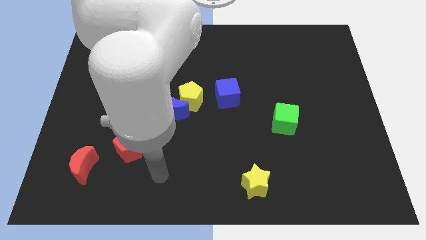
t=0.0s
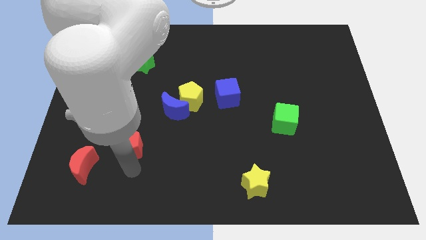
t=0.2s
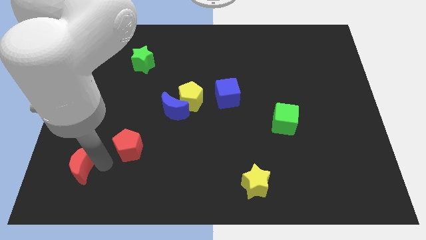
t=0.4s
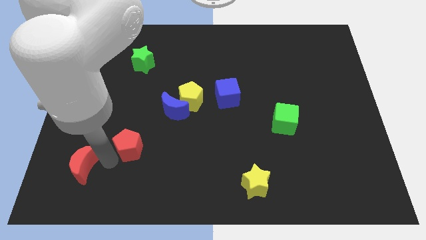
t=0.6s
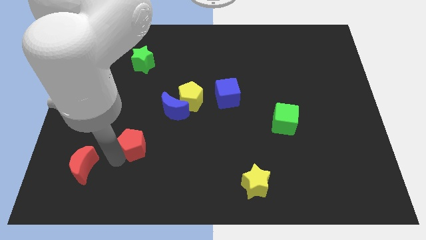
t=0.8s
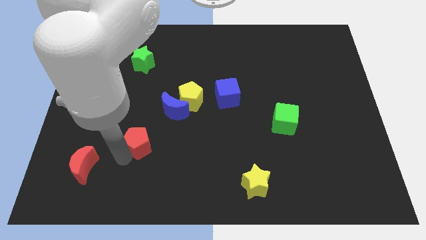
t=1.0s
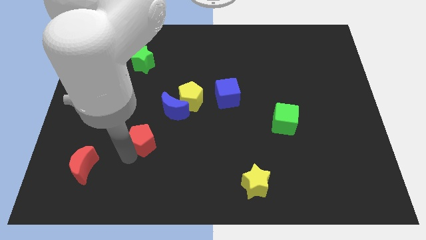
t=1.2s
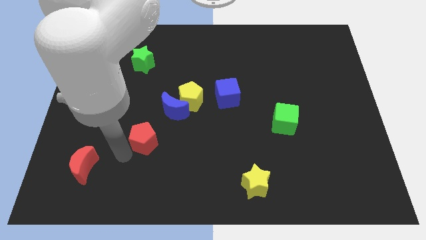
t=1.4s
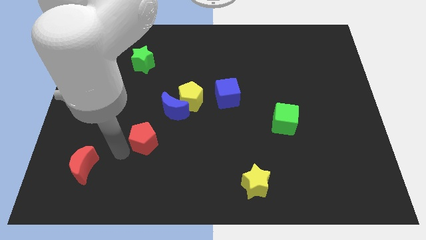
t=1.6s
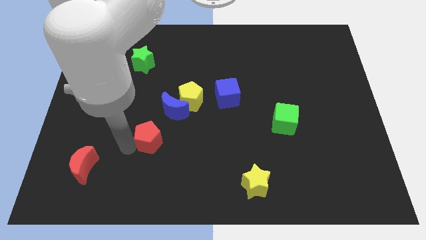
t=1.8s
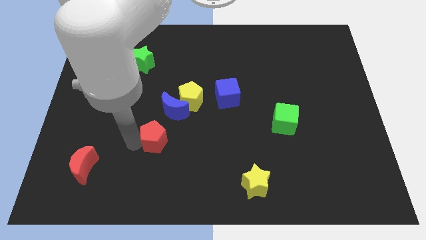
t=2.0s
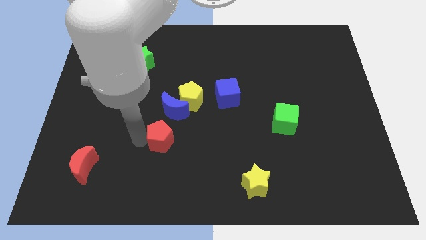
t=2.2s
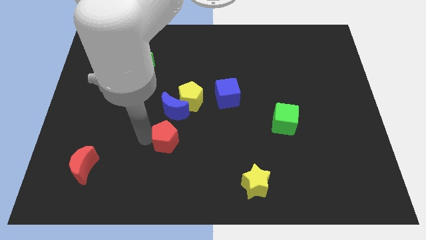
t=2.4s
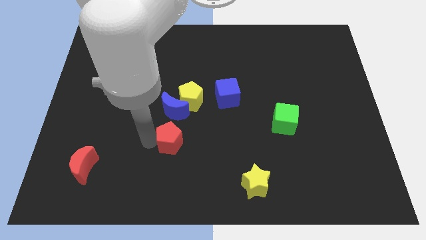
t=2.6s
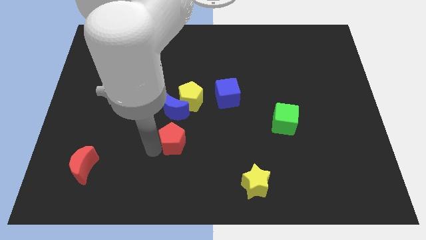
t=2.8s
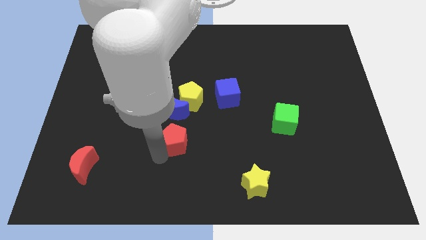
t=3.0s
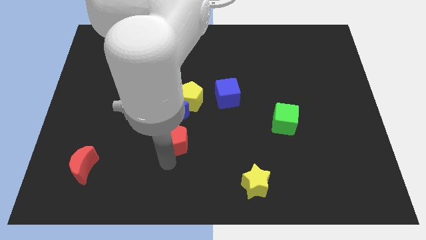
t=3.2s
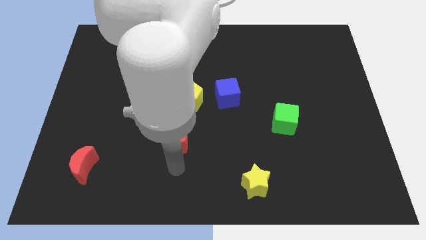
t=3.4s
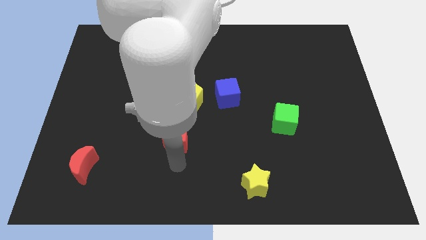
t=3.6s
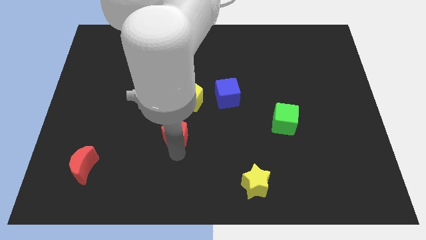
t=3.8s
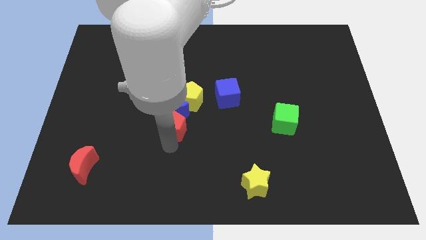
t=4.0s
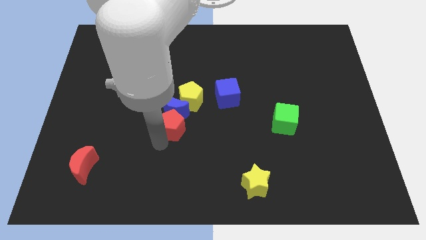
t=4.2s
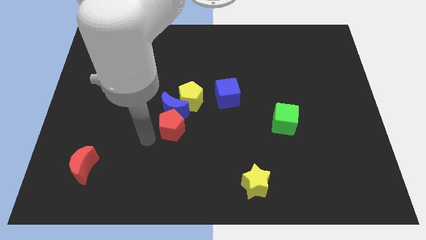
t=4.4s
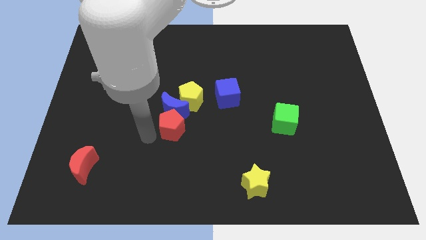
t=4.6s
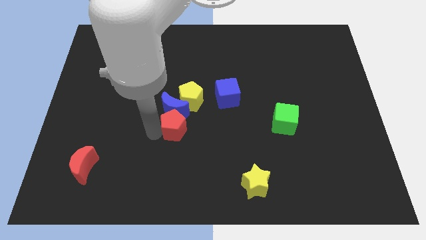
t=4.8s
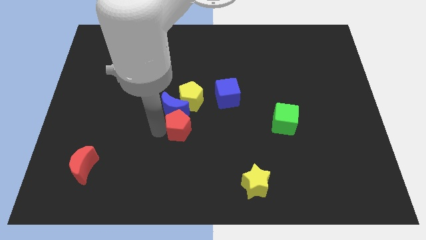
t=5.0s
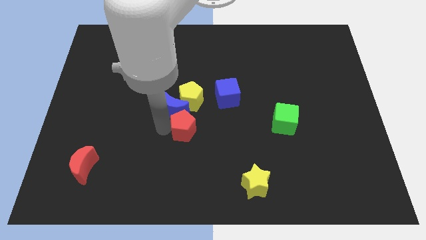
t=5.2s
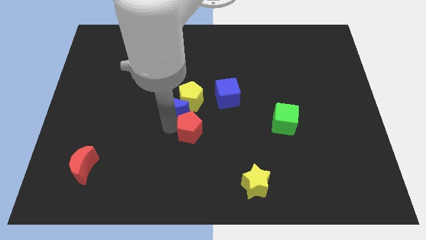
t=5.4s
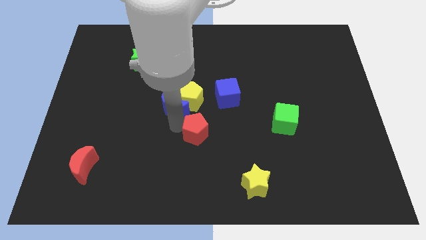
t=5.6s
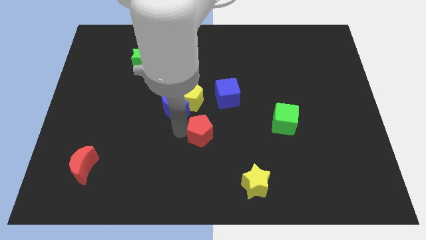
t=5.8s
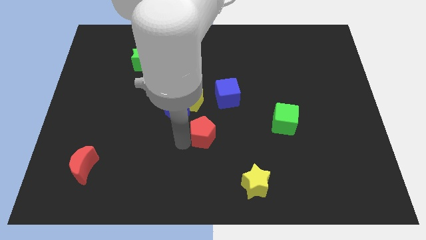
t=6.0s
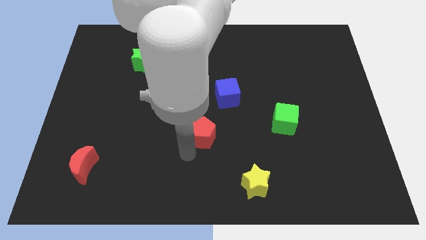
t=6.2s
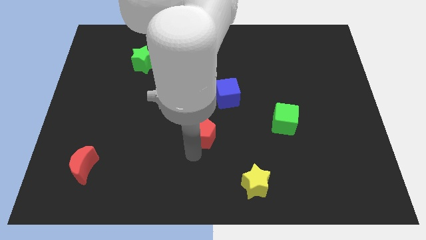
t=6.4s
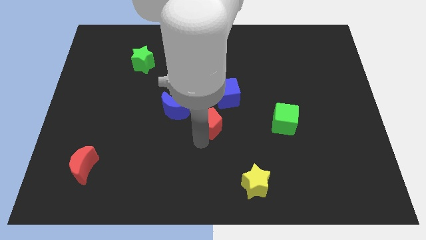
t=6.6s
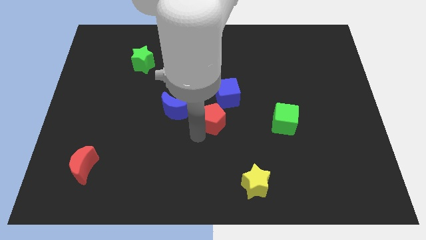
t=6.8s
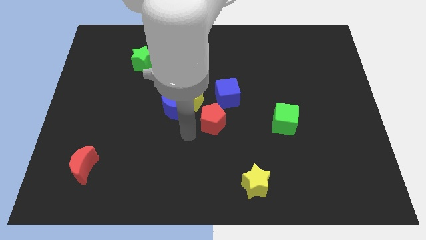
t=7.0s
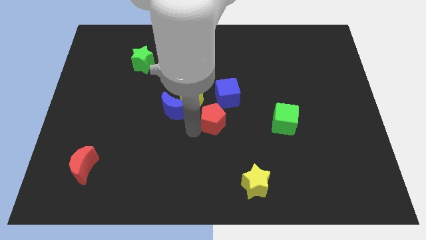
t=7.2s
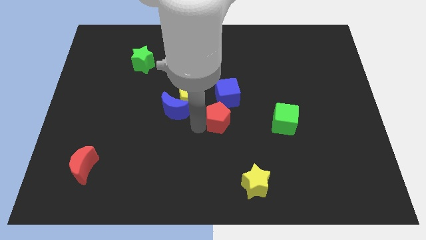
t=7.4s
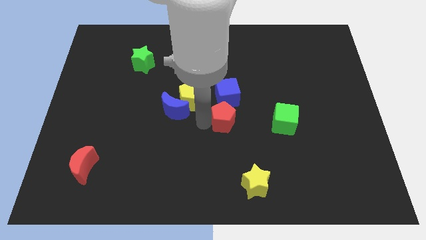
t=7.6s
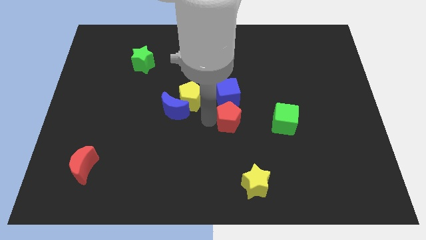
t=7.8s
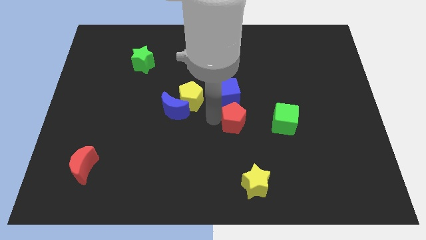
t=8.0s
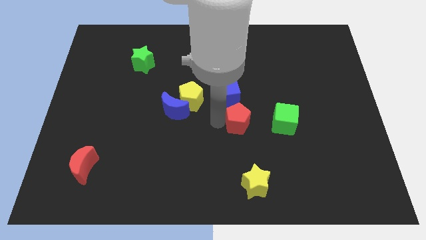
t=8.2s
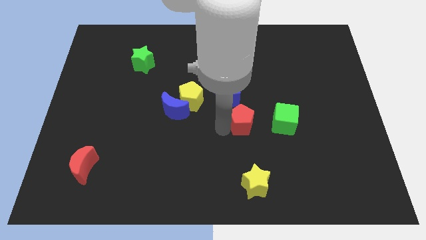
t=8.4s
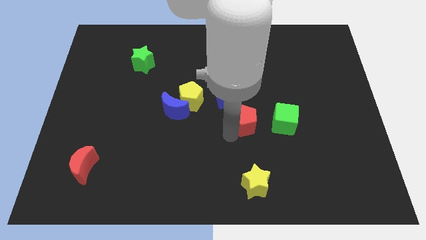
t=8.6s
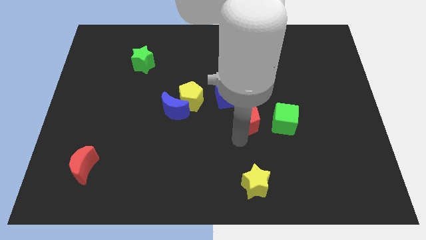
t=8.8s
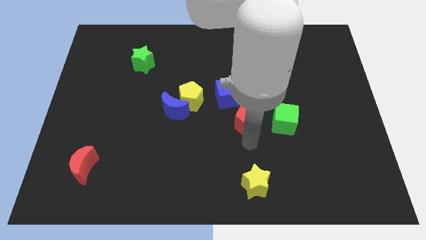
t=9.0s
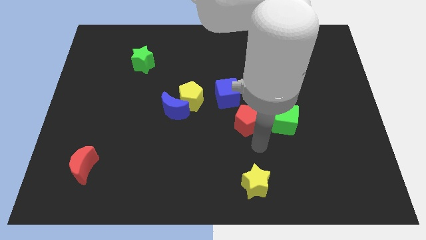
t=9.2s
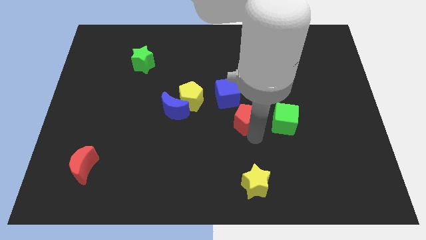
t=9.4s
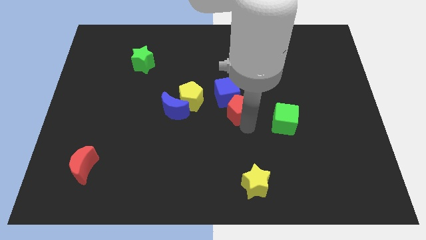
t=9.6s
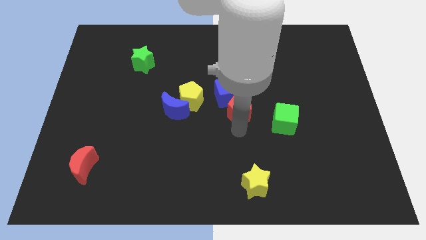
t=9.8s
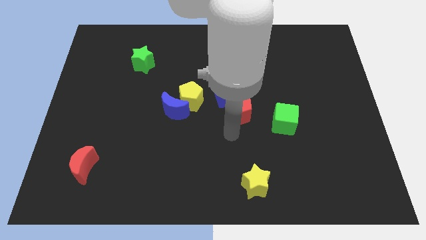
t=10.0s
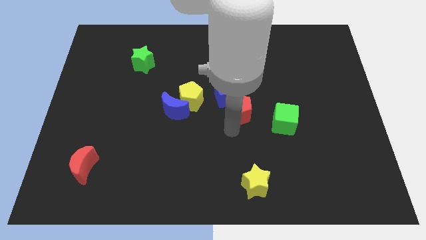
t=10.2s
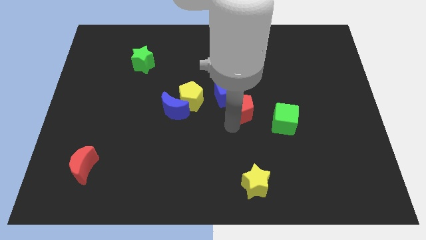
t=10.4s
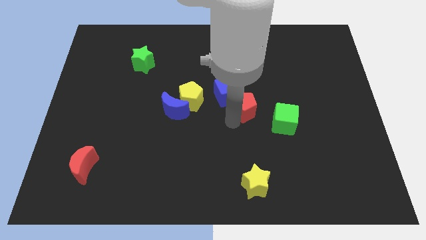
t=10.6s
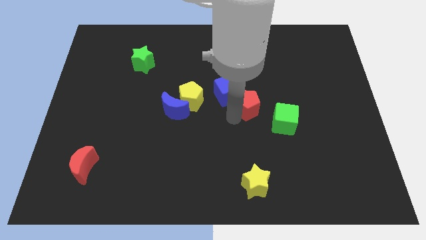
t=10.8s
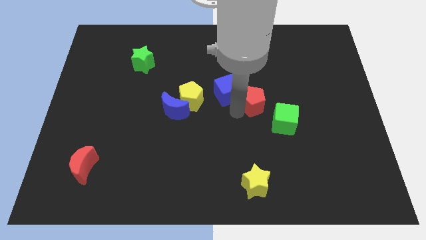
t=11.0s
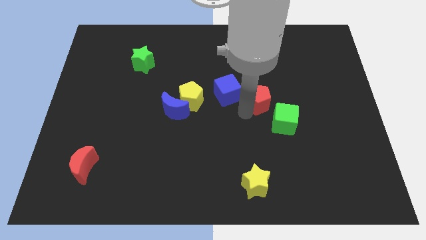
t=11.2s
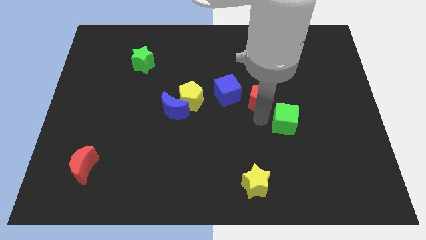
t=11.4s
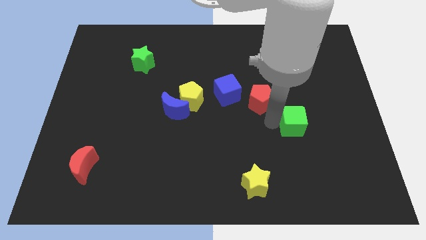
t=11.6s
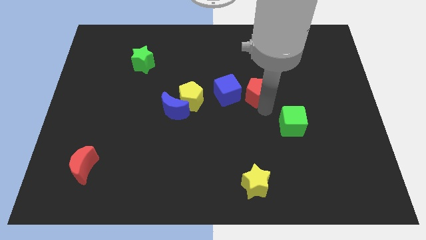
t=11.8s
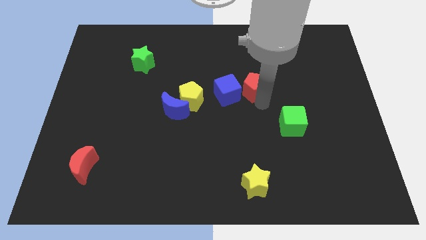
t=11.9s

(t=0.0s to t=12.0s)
move the red pentagon to the top right of the blue cube

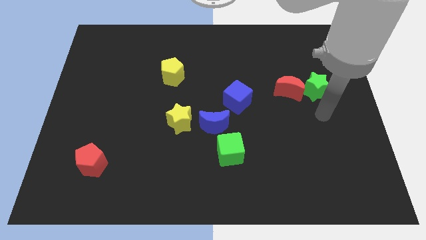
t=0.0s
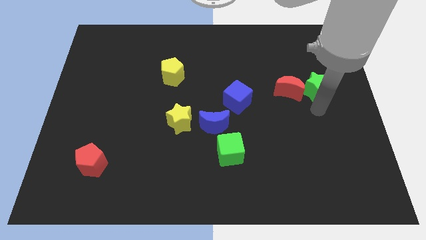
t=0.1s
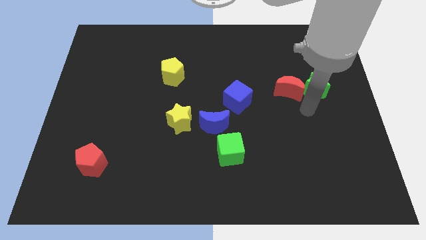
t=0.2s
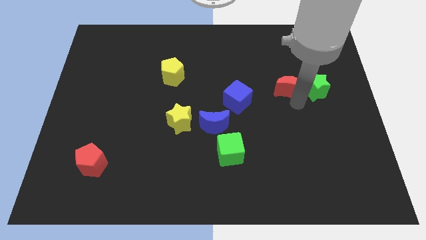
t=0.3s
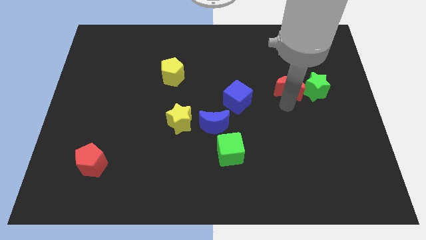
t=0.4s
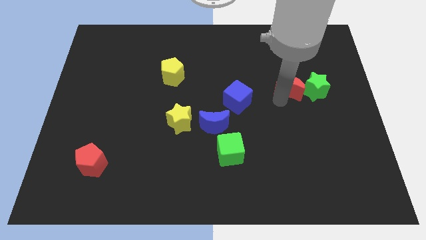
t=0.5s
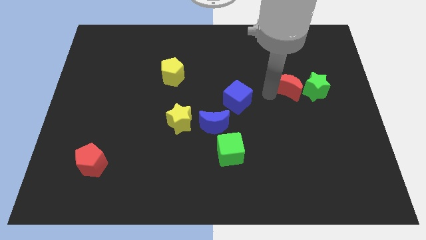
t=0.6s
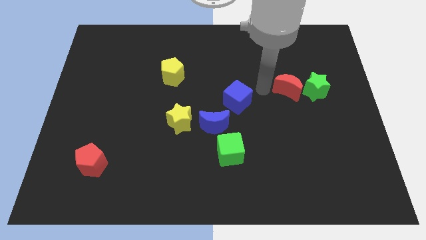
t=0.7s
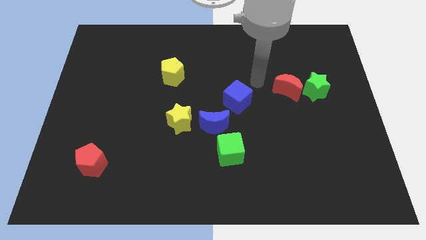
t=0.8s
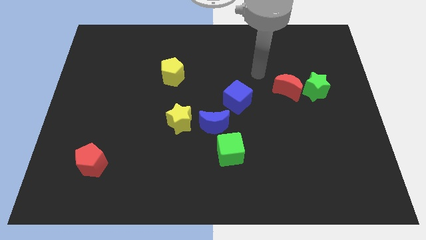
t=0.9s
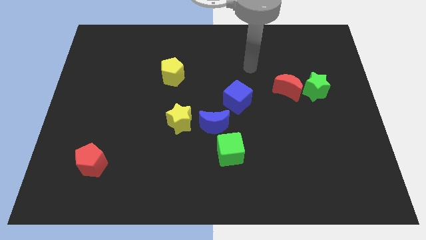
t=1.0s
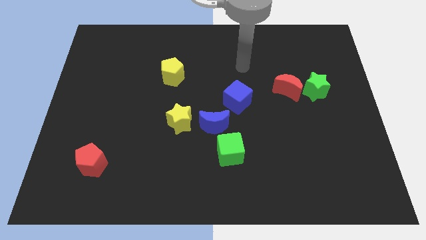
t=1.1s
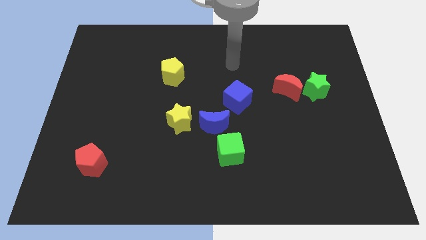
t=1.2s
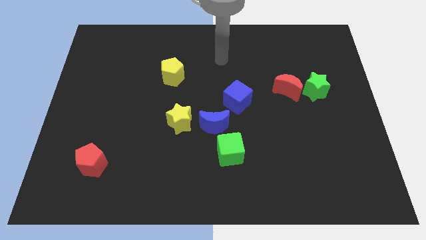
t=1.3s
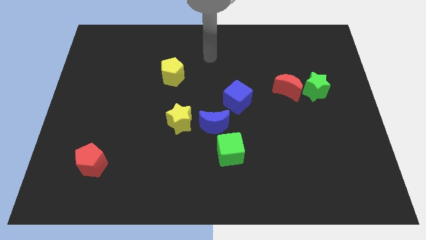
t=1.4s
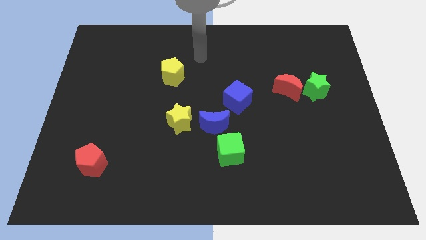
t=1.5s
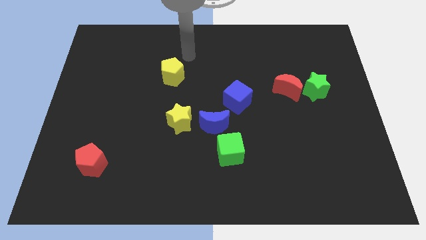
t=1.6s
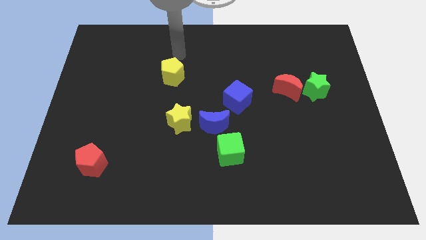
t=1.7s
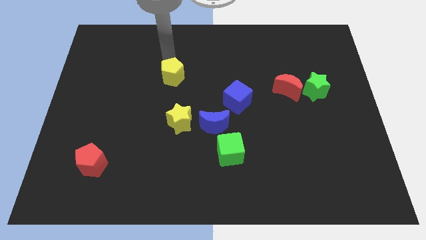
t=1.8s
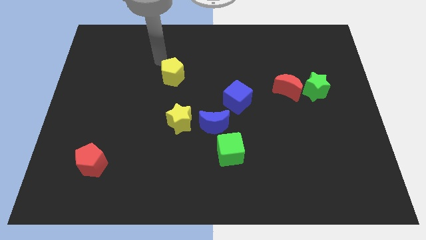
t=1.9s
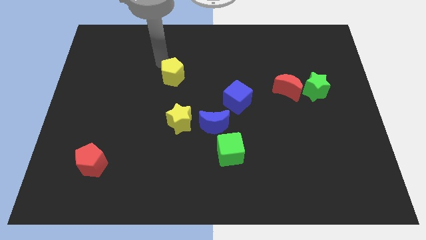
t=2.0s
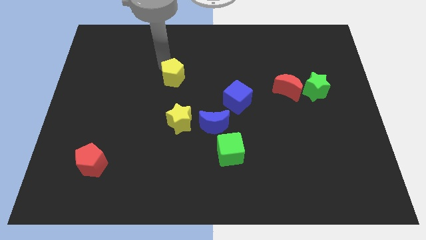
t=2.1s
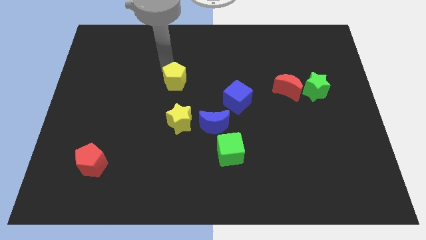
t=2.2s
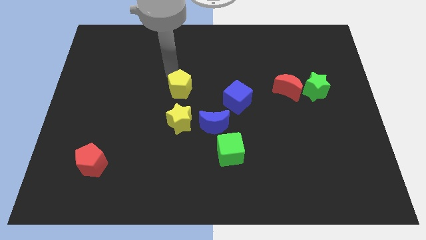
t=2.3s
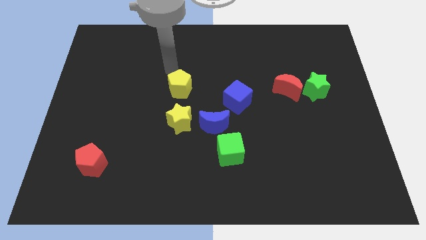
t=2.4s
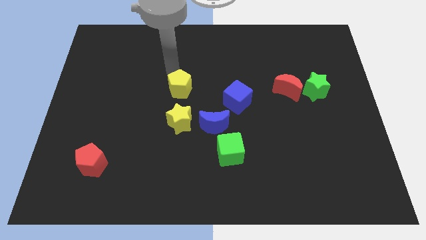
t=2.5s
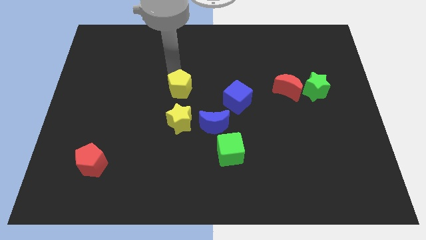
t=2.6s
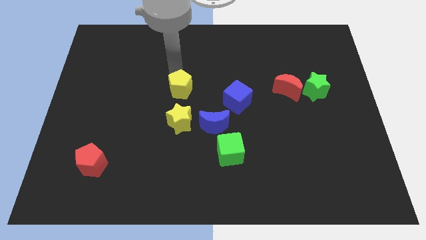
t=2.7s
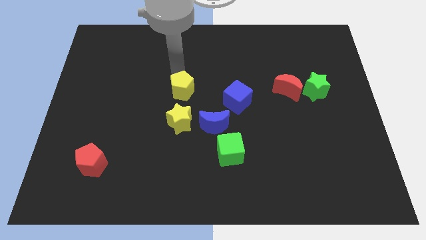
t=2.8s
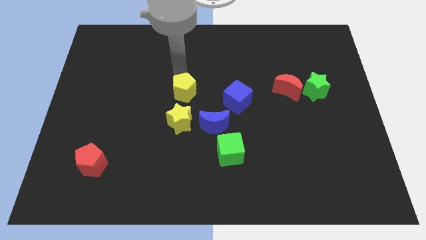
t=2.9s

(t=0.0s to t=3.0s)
put the yellow pentagon to the top left side of the blue moon
